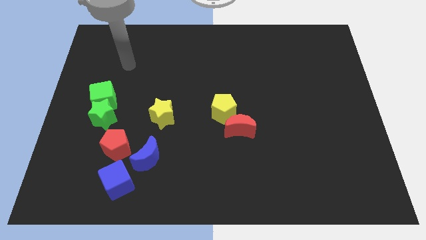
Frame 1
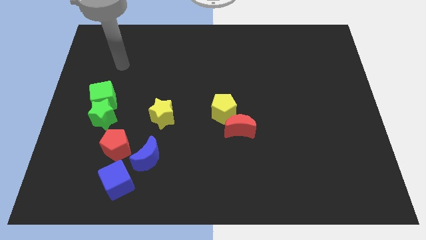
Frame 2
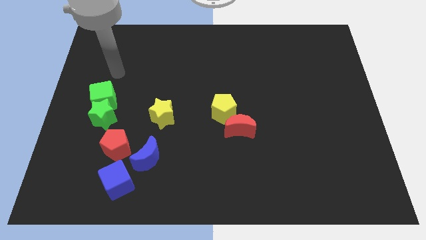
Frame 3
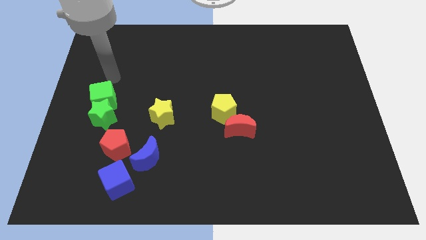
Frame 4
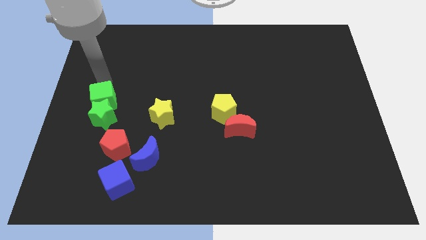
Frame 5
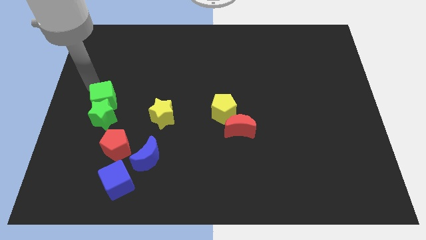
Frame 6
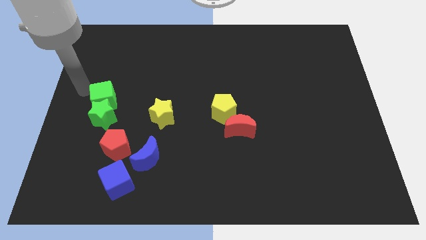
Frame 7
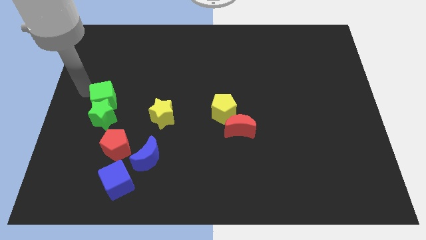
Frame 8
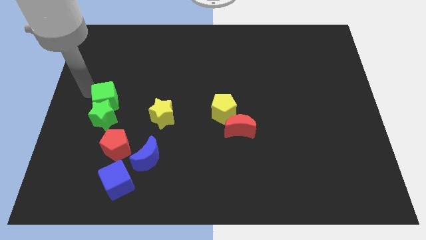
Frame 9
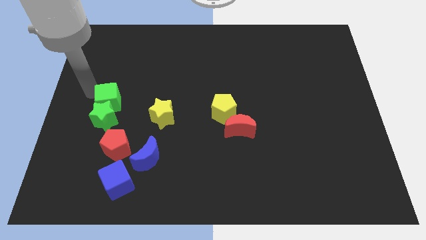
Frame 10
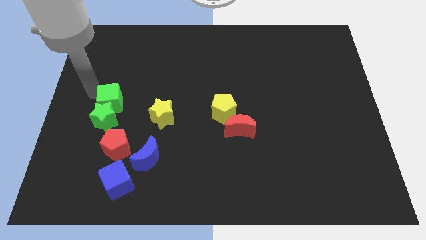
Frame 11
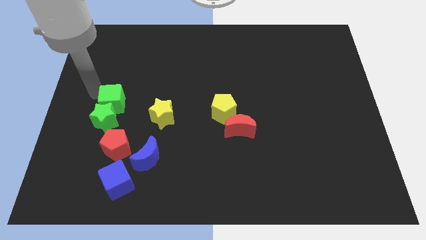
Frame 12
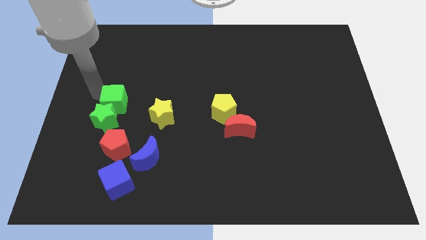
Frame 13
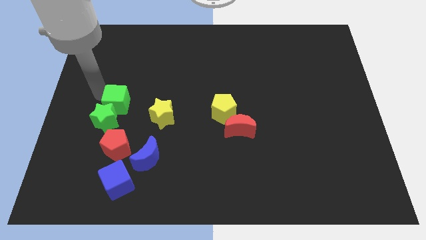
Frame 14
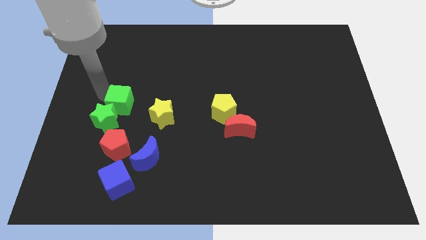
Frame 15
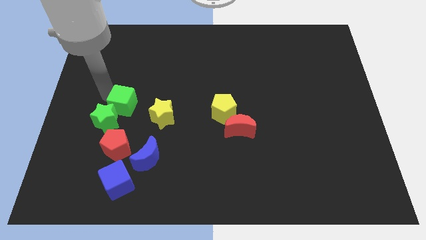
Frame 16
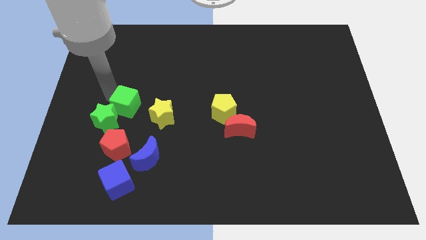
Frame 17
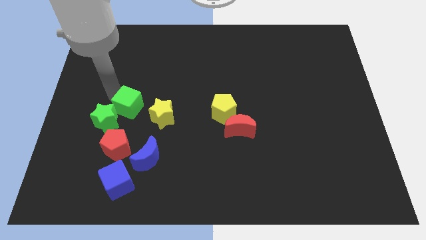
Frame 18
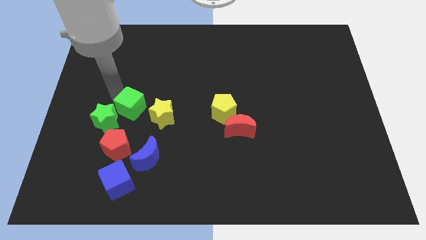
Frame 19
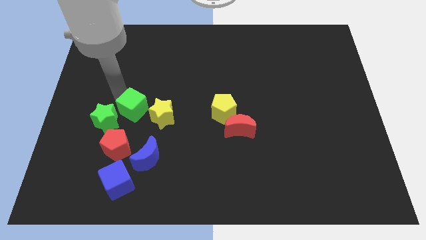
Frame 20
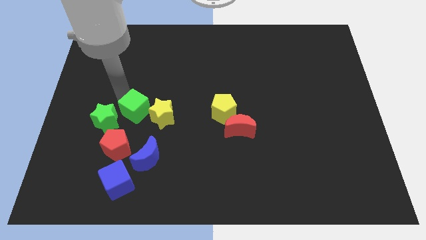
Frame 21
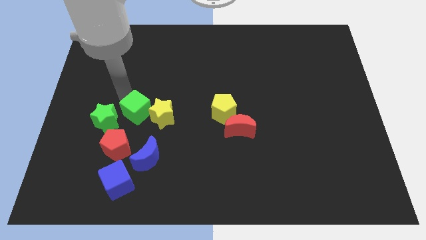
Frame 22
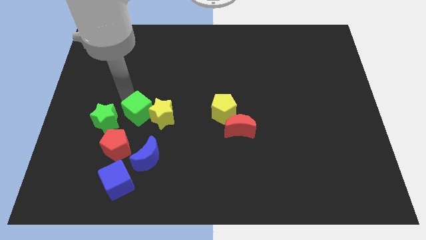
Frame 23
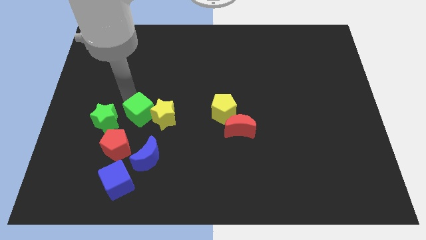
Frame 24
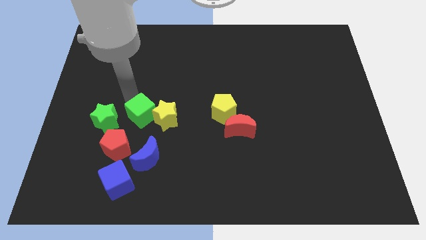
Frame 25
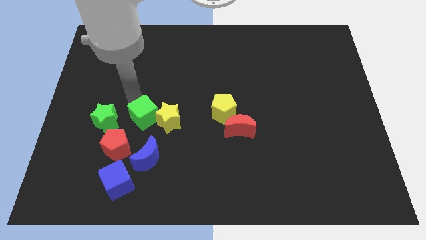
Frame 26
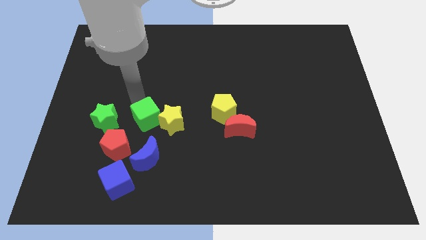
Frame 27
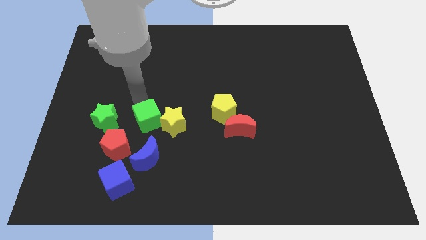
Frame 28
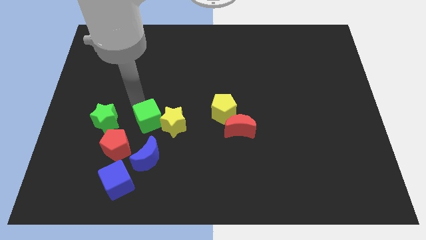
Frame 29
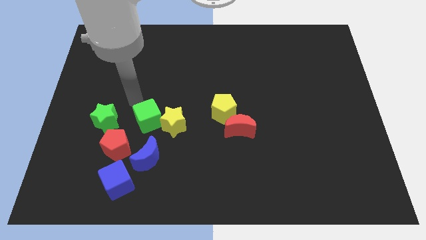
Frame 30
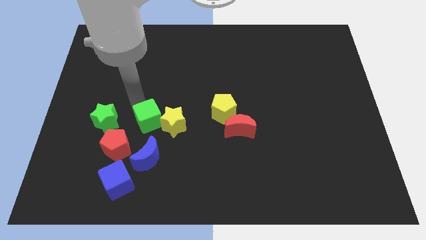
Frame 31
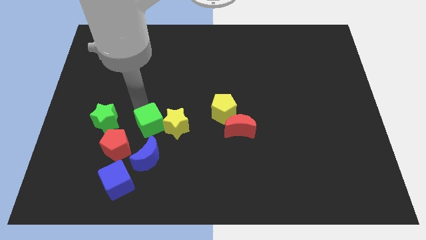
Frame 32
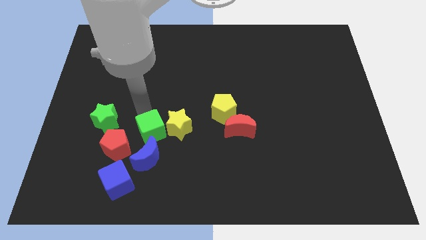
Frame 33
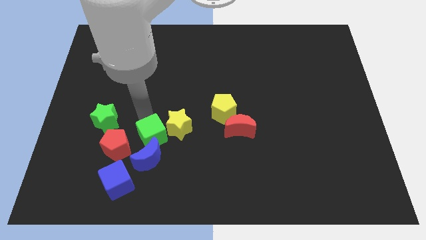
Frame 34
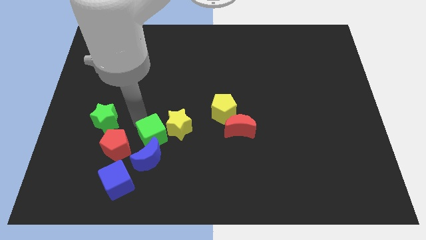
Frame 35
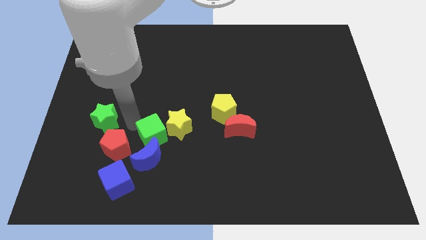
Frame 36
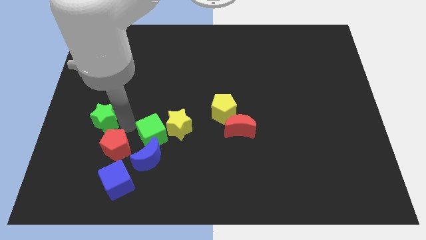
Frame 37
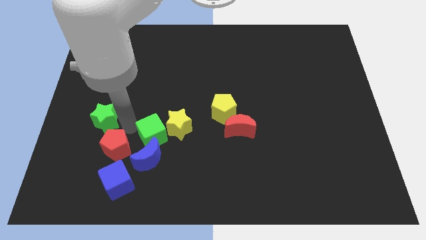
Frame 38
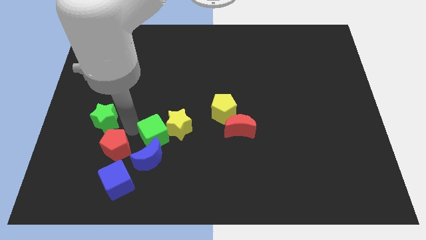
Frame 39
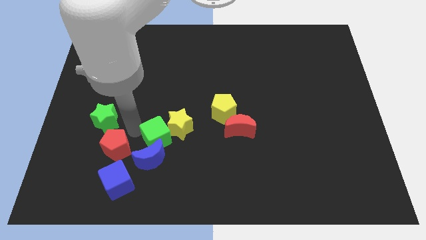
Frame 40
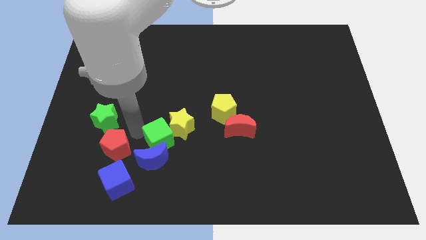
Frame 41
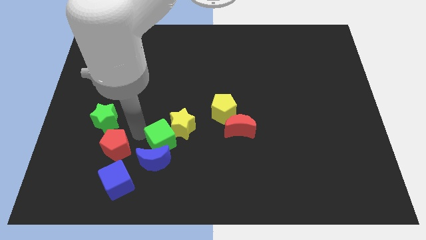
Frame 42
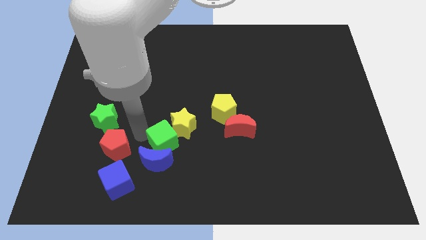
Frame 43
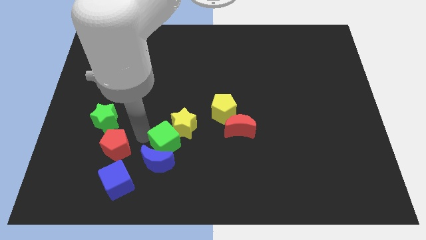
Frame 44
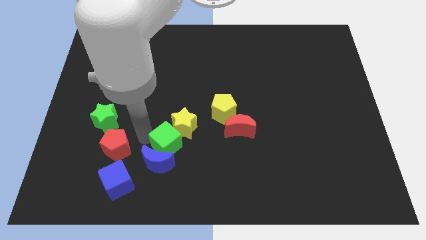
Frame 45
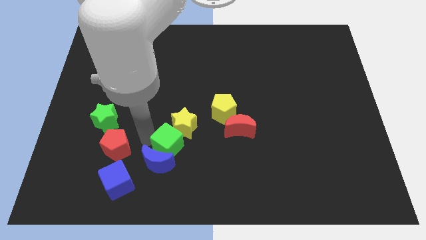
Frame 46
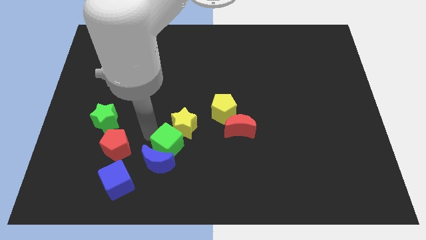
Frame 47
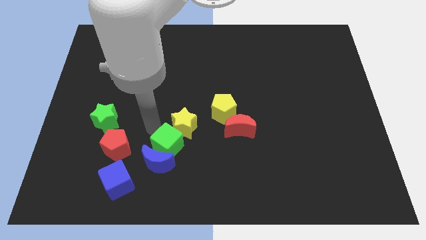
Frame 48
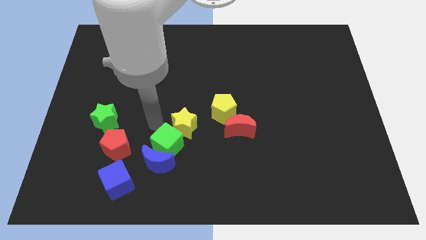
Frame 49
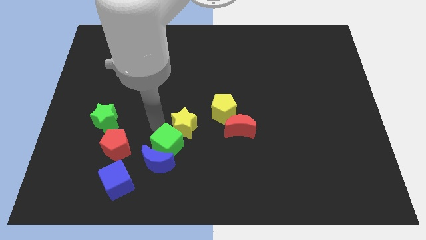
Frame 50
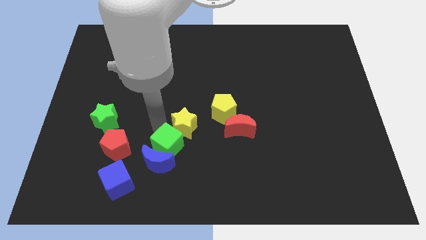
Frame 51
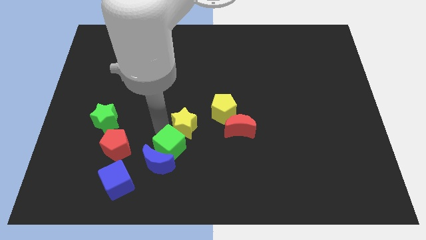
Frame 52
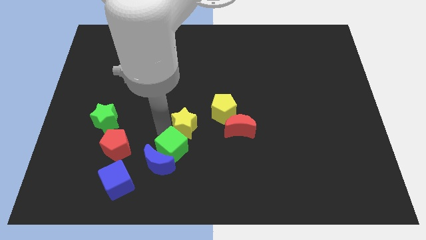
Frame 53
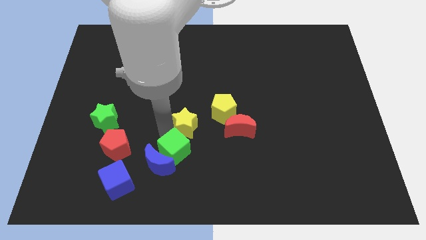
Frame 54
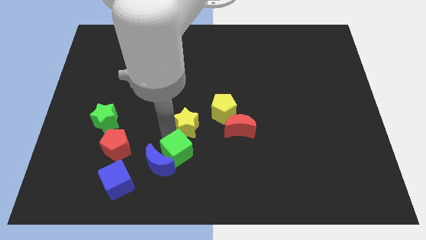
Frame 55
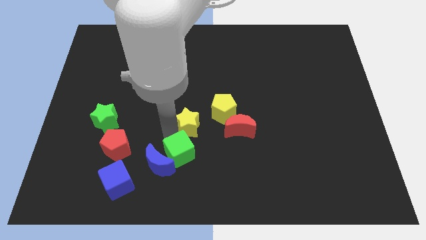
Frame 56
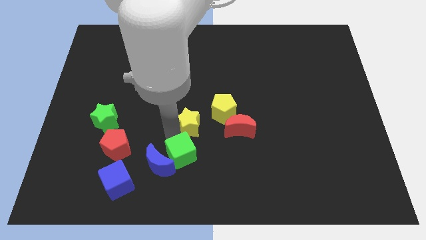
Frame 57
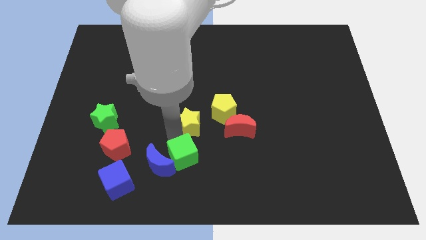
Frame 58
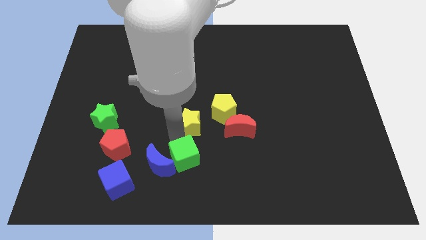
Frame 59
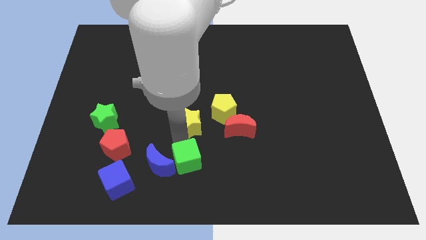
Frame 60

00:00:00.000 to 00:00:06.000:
move the green cube to the bottom side
